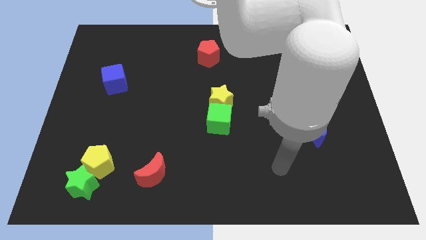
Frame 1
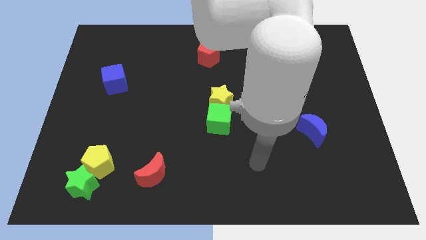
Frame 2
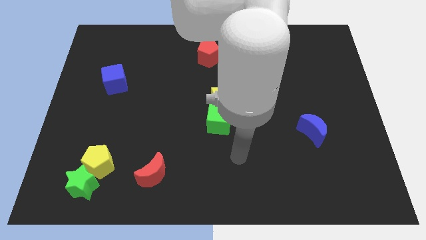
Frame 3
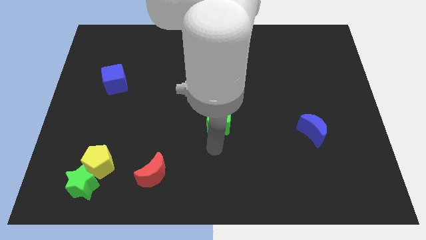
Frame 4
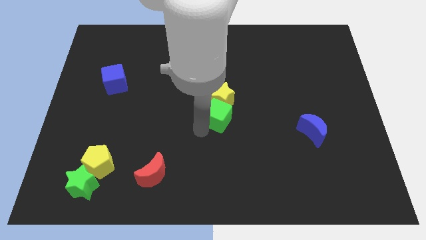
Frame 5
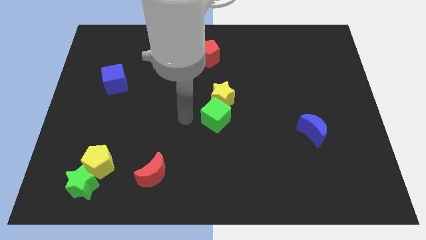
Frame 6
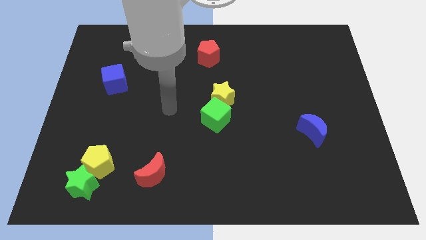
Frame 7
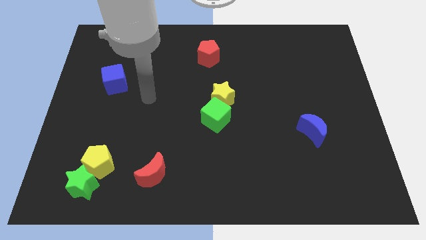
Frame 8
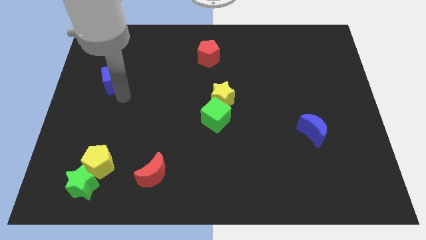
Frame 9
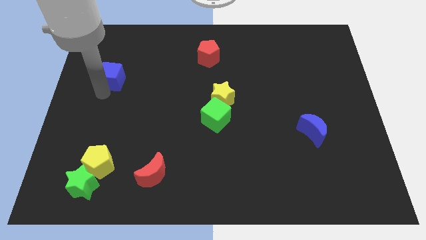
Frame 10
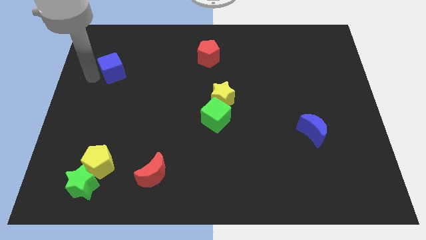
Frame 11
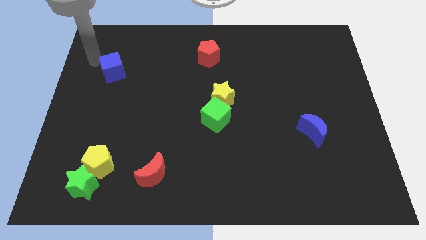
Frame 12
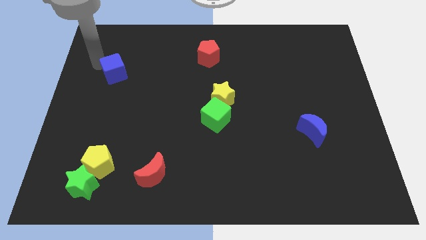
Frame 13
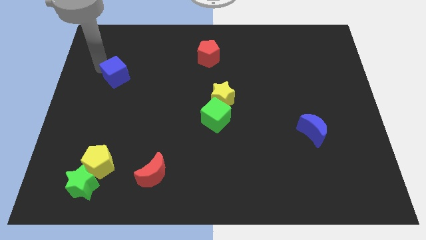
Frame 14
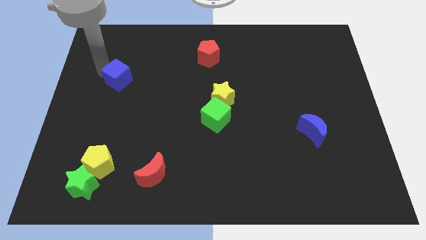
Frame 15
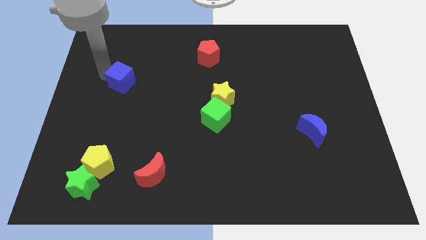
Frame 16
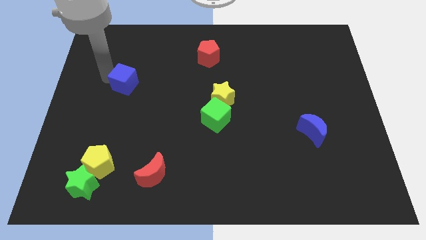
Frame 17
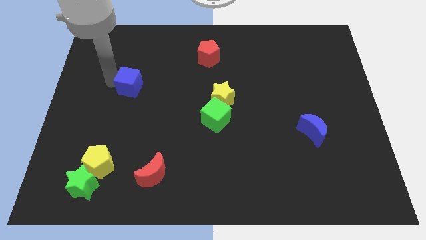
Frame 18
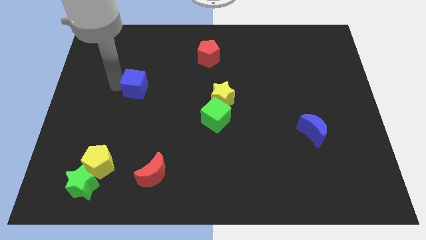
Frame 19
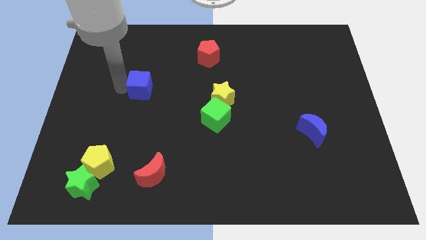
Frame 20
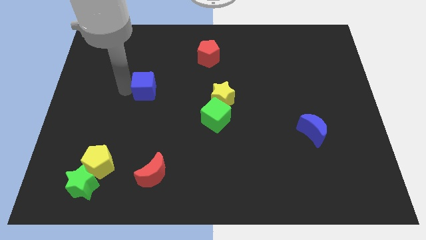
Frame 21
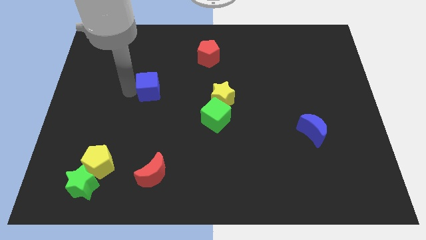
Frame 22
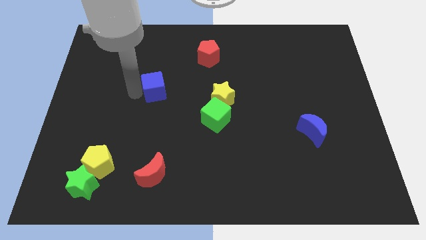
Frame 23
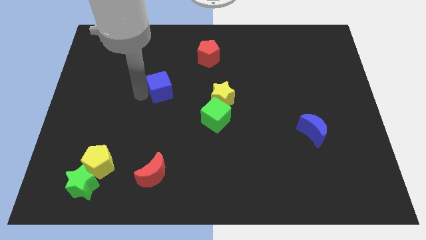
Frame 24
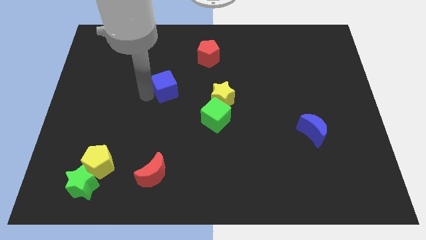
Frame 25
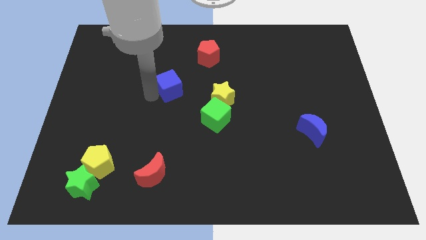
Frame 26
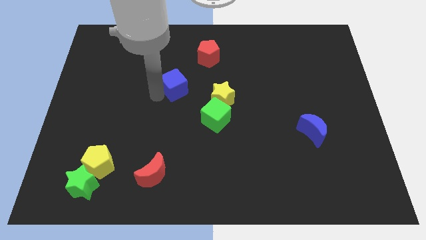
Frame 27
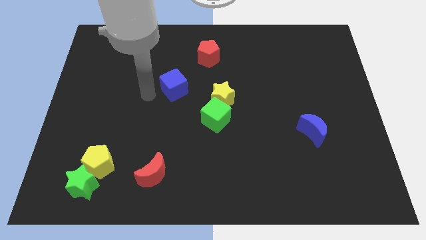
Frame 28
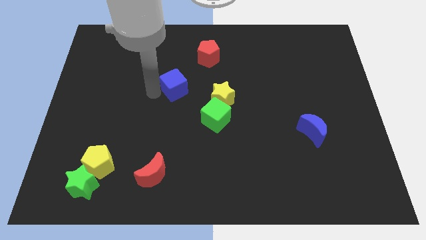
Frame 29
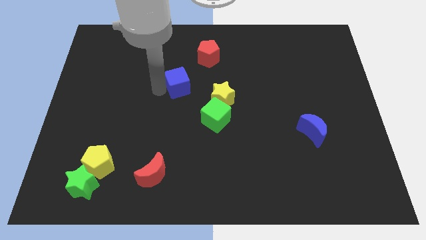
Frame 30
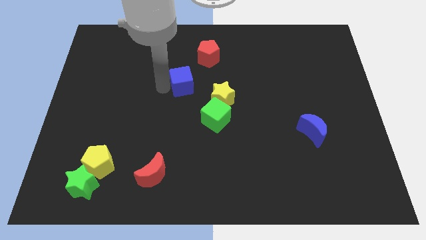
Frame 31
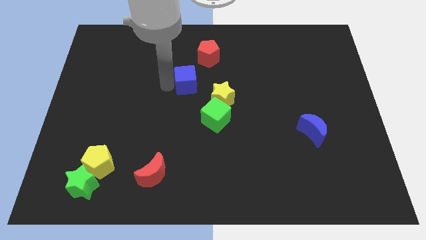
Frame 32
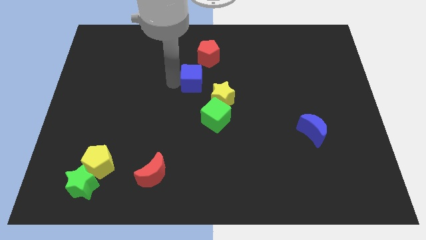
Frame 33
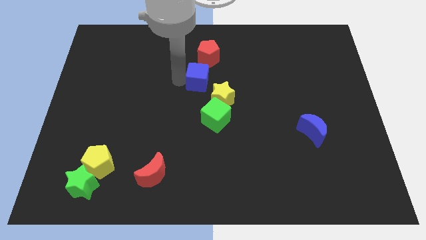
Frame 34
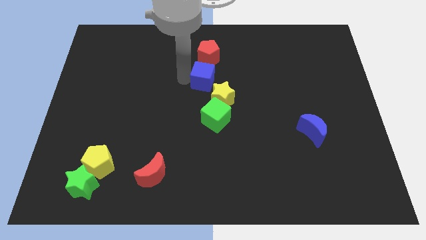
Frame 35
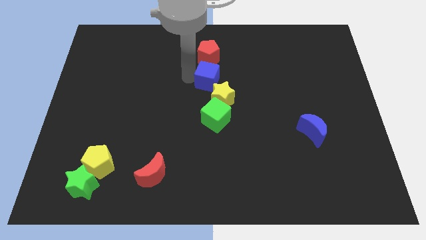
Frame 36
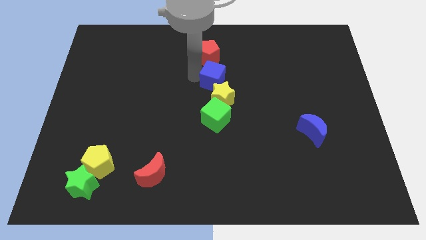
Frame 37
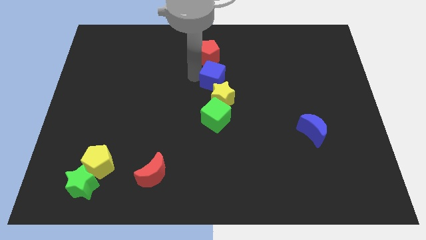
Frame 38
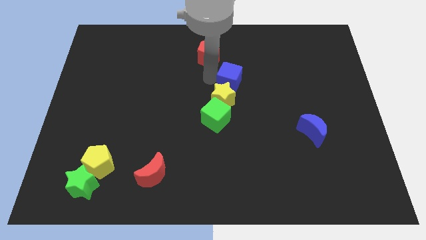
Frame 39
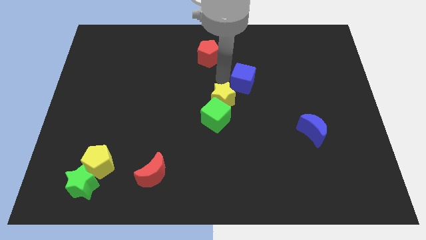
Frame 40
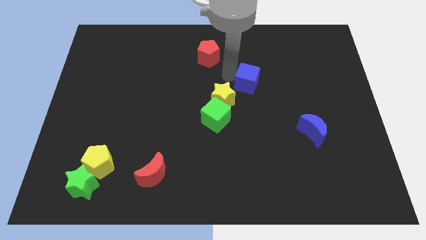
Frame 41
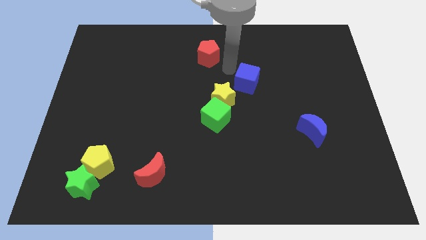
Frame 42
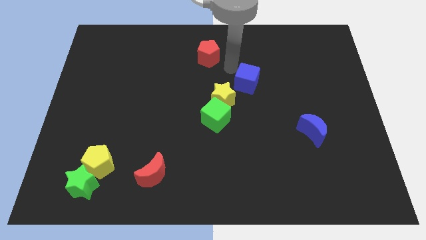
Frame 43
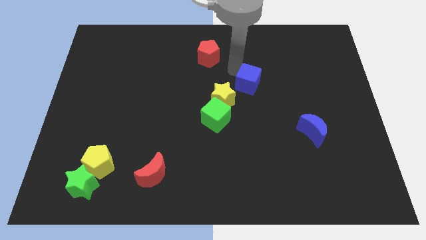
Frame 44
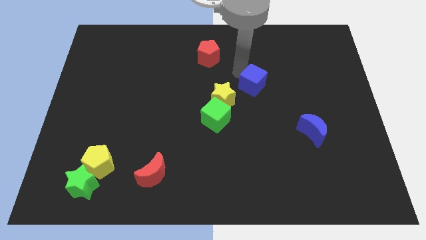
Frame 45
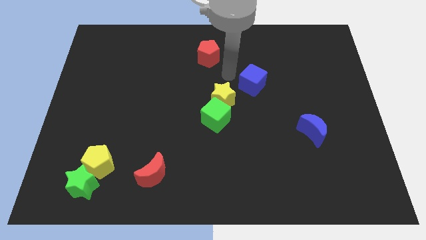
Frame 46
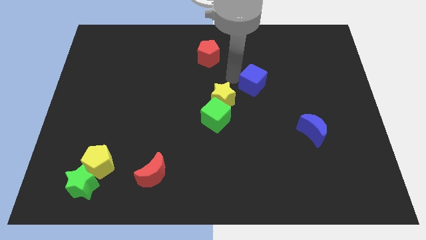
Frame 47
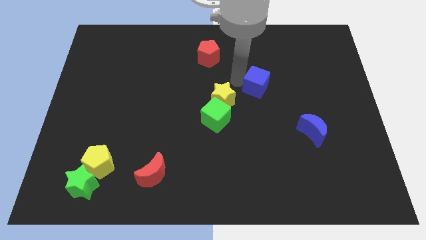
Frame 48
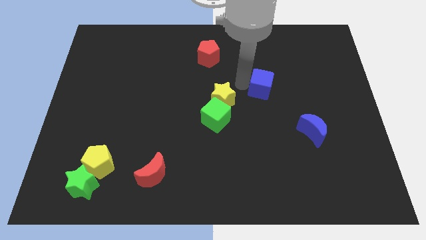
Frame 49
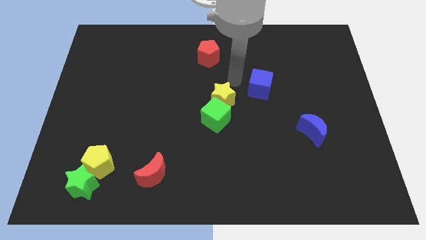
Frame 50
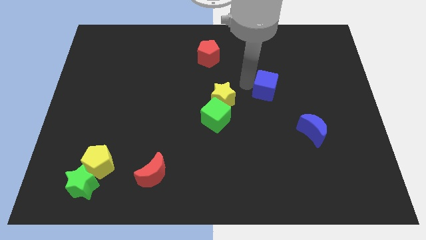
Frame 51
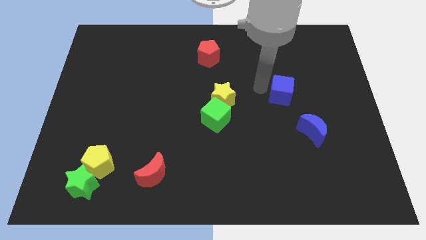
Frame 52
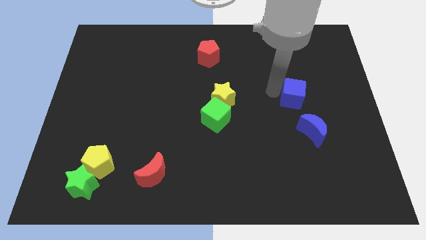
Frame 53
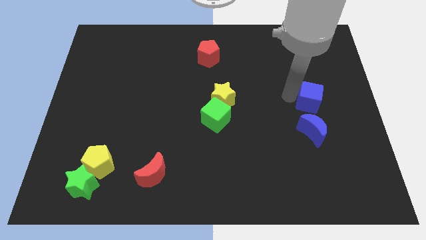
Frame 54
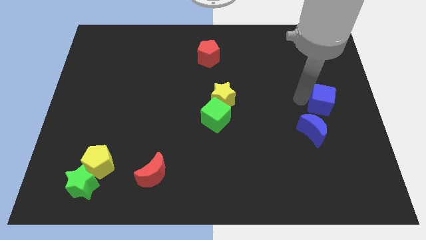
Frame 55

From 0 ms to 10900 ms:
slide the blue cube to the center right

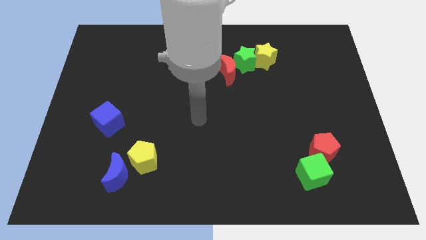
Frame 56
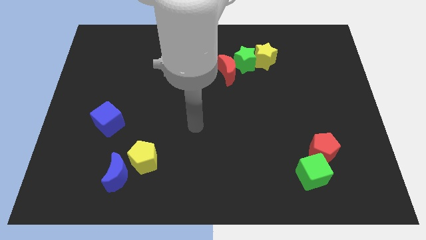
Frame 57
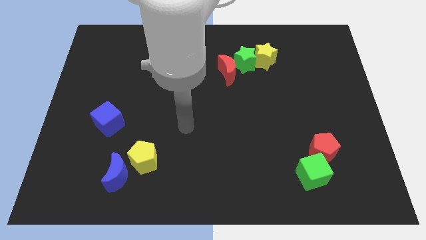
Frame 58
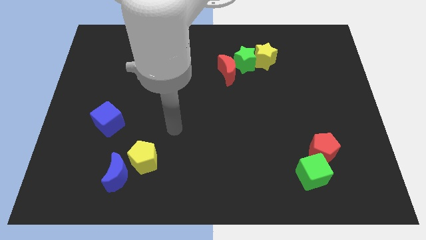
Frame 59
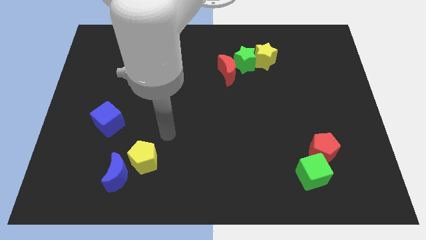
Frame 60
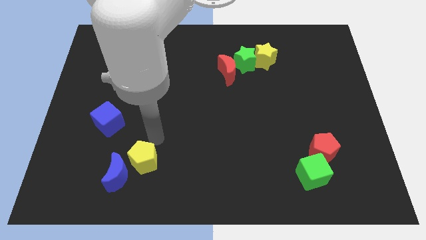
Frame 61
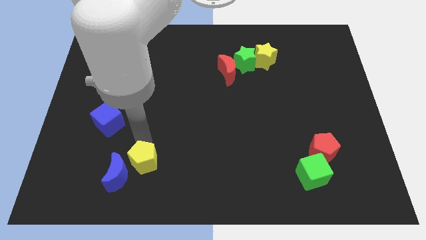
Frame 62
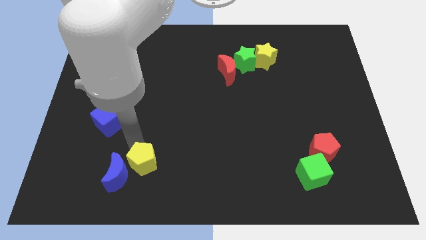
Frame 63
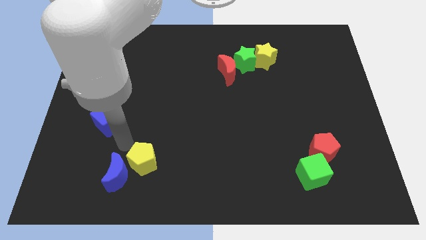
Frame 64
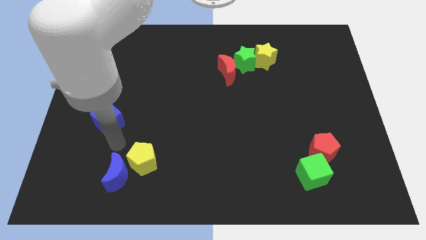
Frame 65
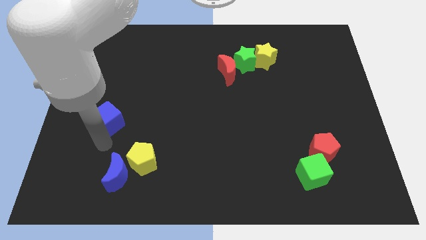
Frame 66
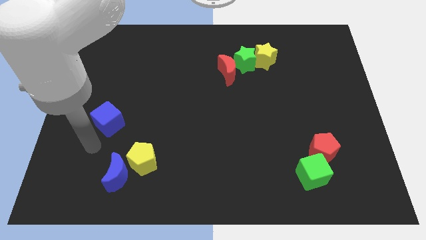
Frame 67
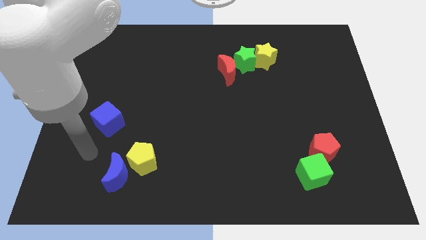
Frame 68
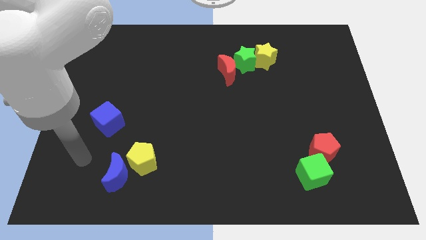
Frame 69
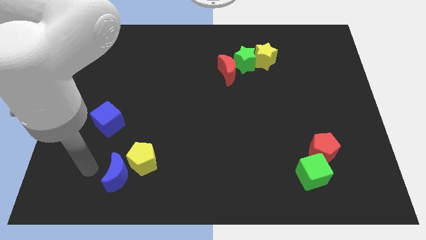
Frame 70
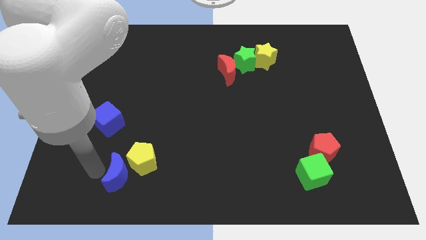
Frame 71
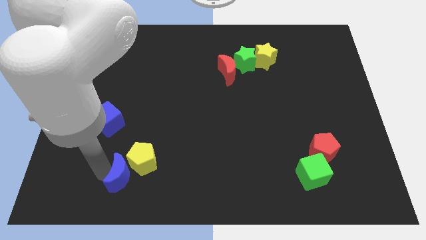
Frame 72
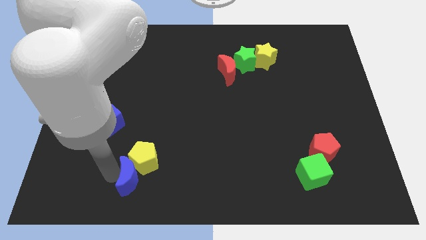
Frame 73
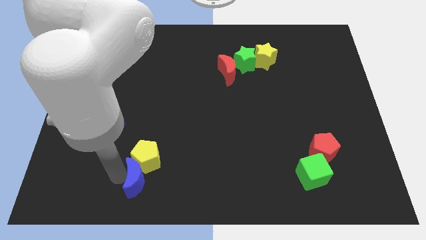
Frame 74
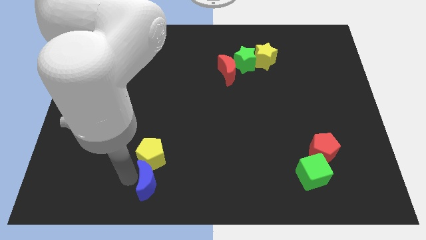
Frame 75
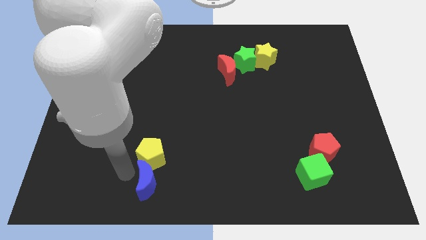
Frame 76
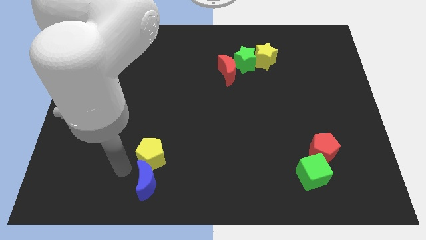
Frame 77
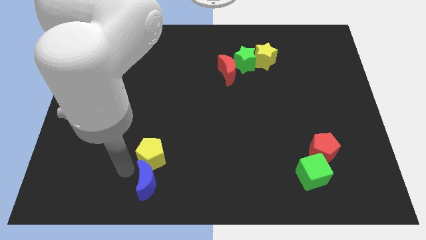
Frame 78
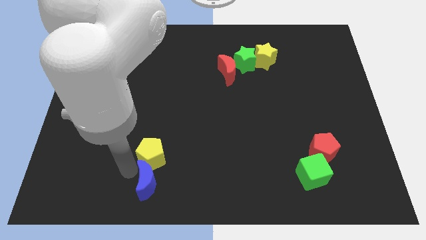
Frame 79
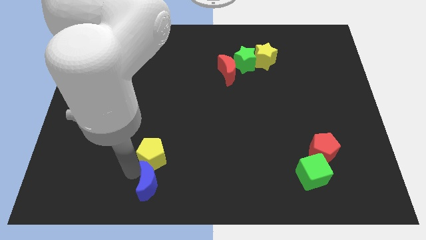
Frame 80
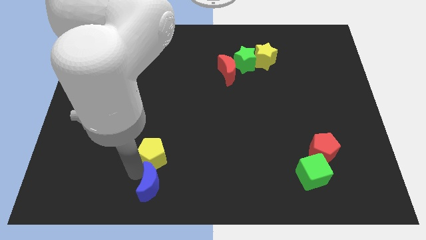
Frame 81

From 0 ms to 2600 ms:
push the blue moon to the bottom side
